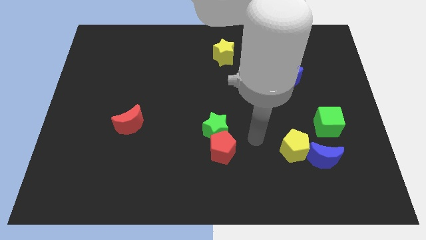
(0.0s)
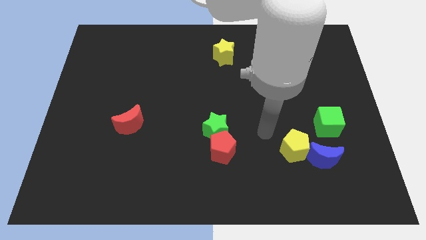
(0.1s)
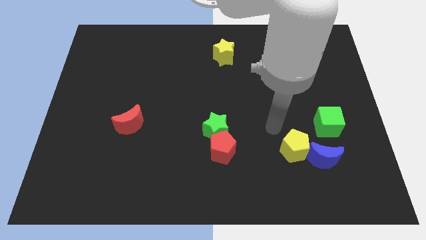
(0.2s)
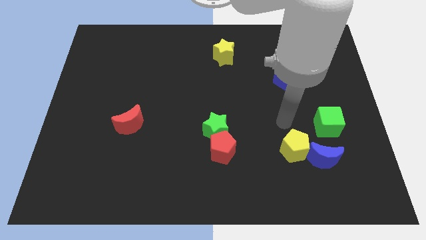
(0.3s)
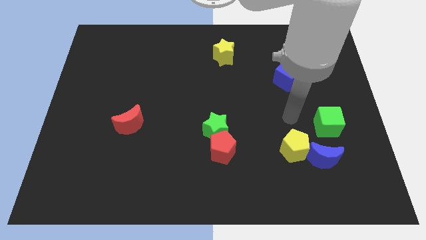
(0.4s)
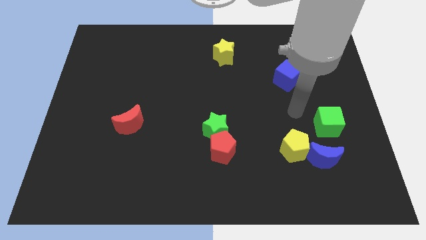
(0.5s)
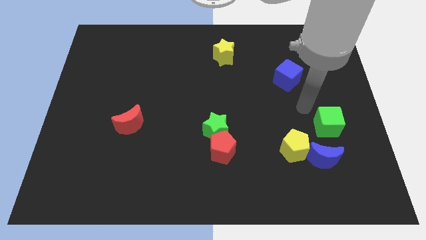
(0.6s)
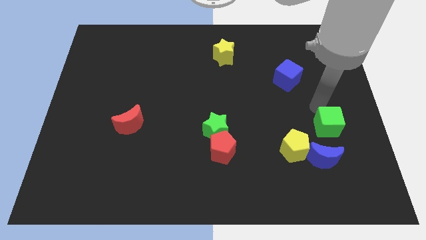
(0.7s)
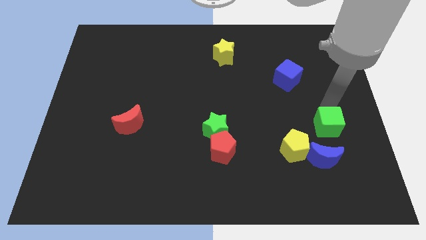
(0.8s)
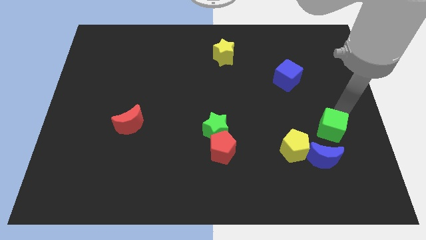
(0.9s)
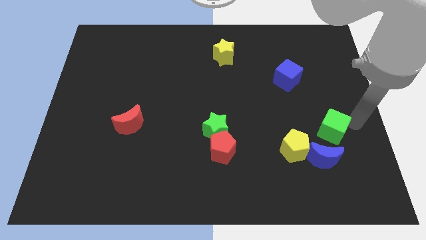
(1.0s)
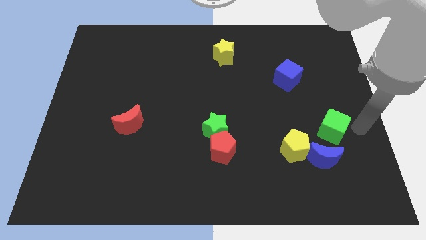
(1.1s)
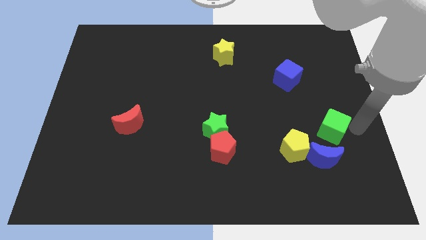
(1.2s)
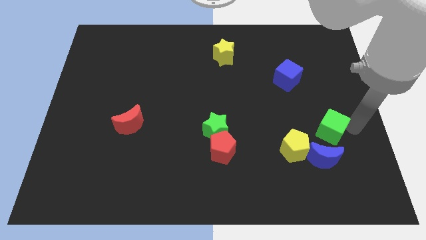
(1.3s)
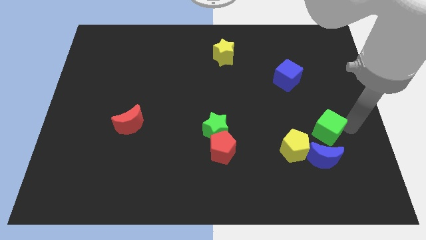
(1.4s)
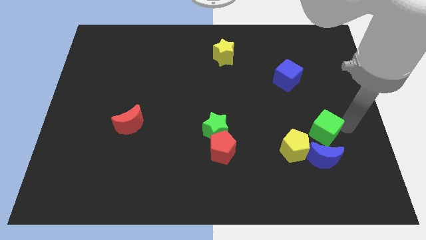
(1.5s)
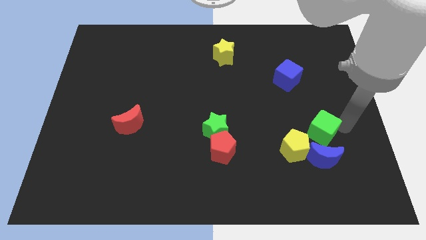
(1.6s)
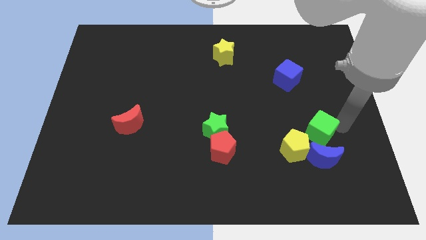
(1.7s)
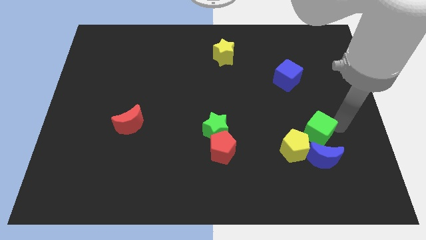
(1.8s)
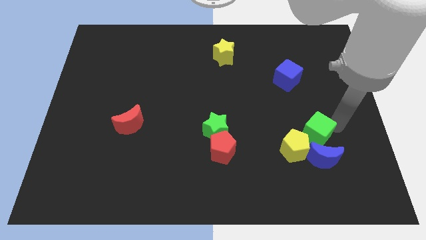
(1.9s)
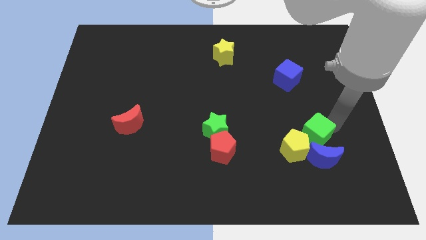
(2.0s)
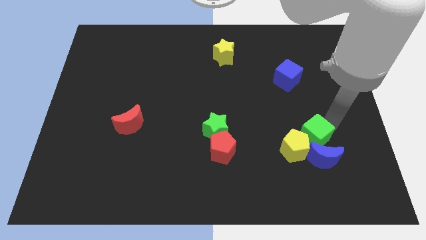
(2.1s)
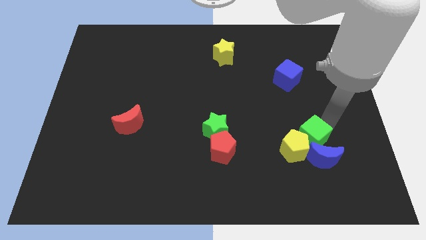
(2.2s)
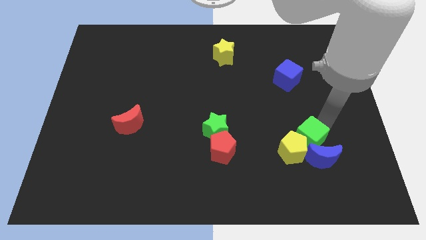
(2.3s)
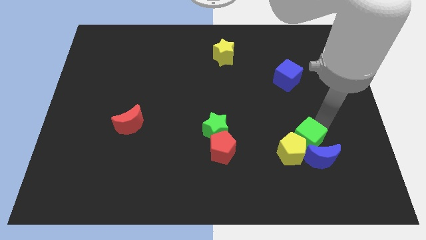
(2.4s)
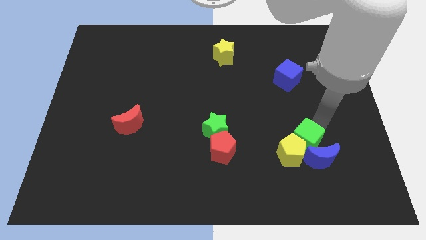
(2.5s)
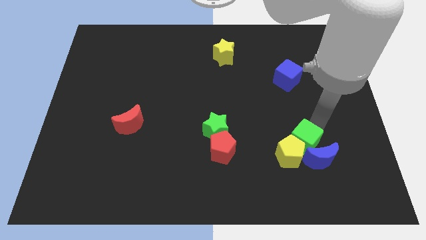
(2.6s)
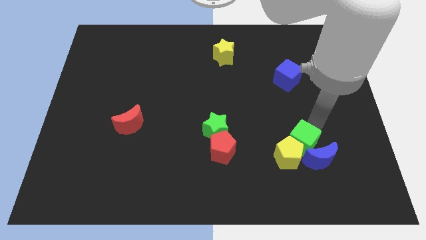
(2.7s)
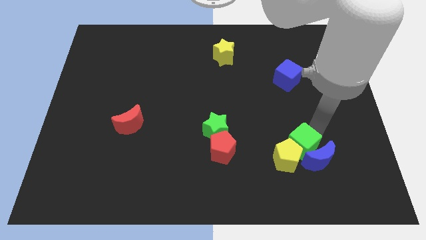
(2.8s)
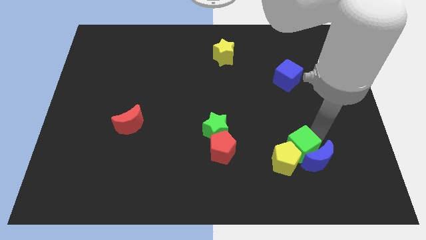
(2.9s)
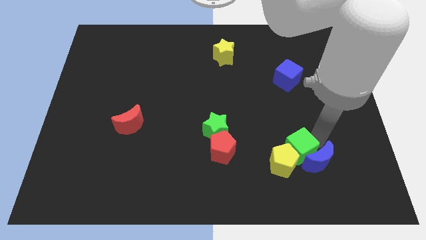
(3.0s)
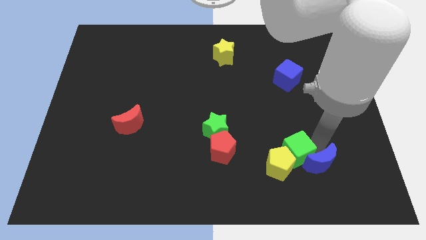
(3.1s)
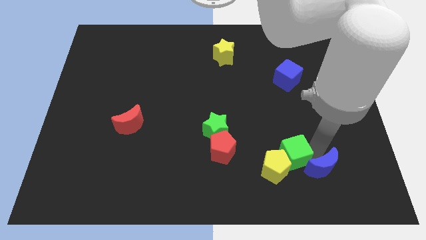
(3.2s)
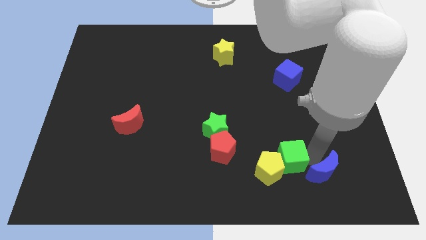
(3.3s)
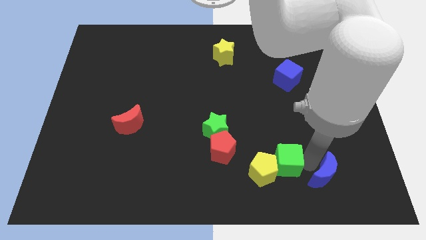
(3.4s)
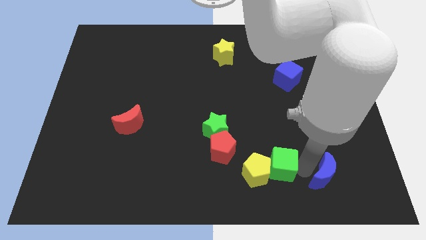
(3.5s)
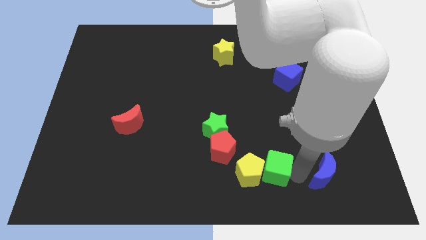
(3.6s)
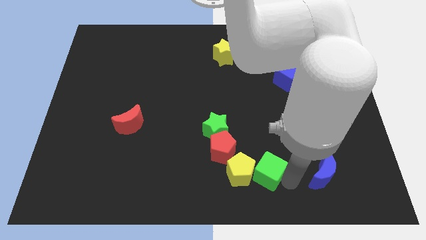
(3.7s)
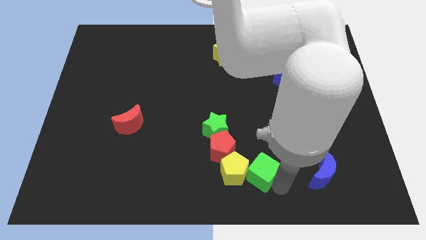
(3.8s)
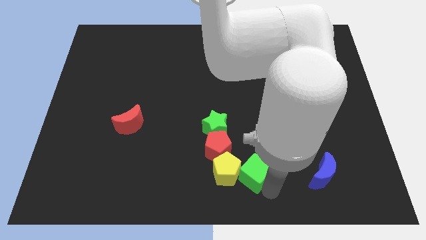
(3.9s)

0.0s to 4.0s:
slightly slide the green cube to the left

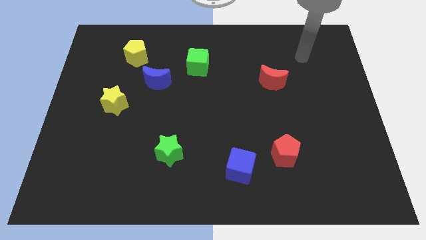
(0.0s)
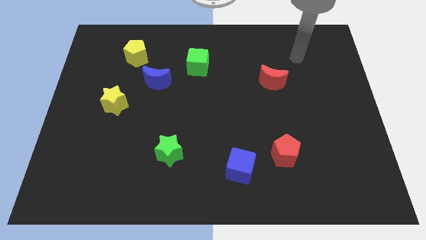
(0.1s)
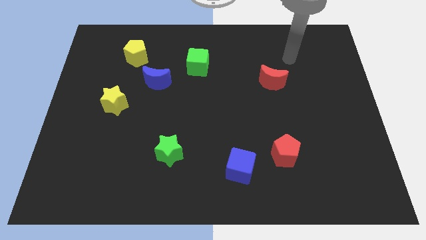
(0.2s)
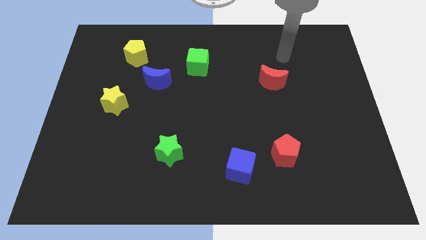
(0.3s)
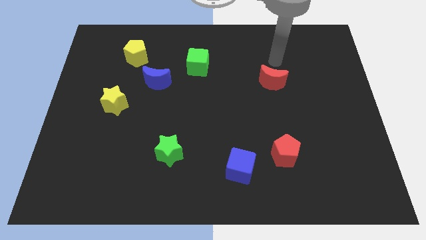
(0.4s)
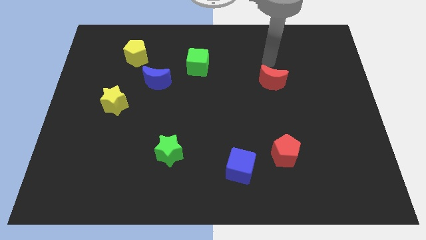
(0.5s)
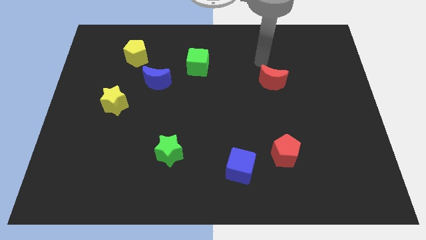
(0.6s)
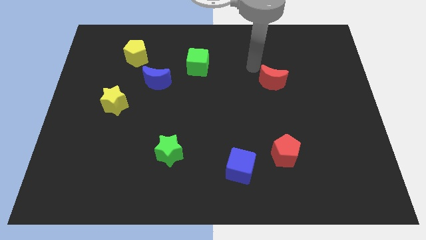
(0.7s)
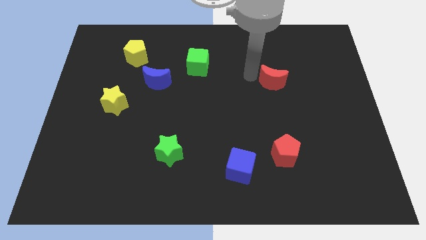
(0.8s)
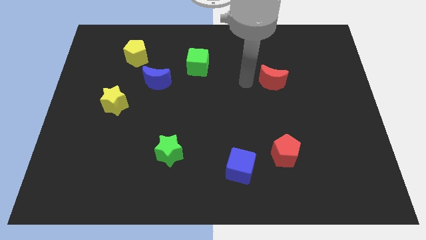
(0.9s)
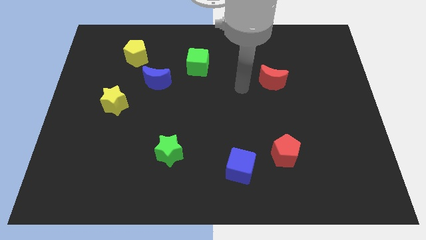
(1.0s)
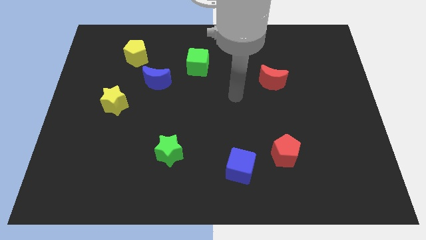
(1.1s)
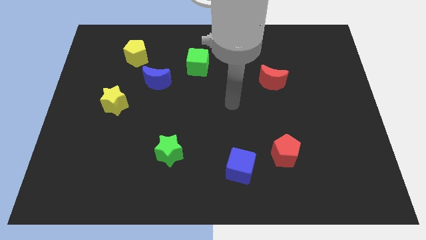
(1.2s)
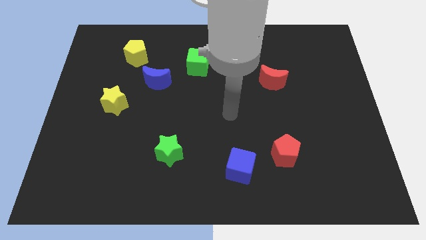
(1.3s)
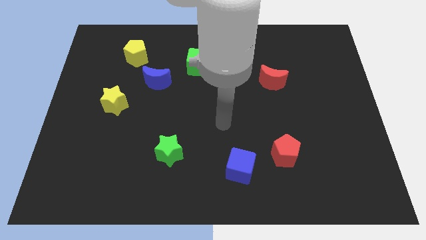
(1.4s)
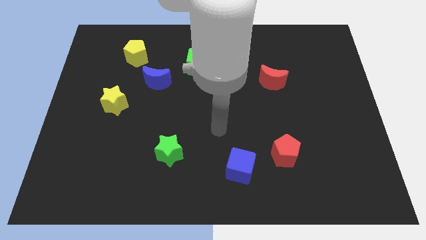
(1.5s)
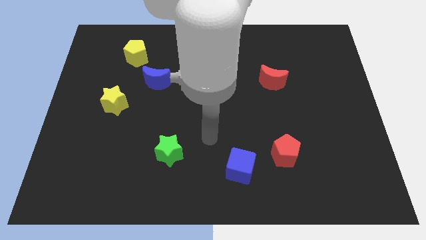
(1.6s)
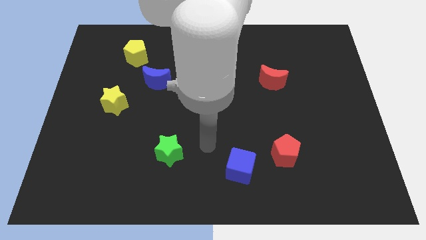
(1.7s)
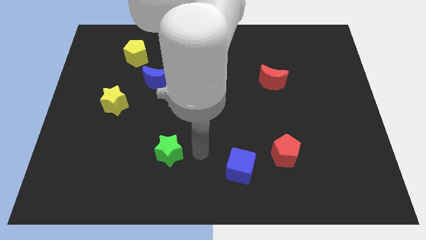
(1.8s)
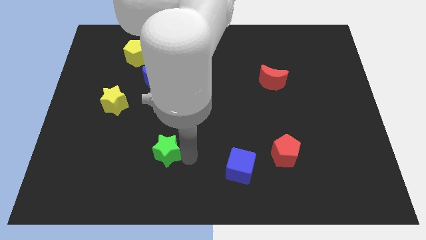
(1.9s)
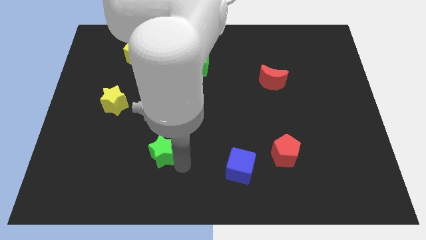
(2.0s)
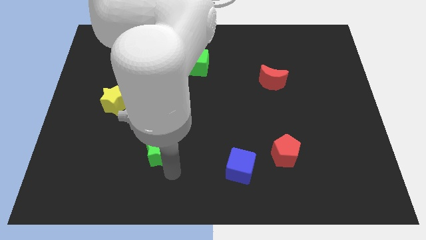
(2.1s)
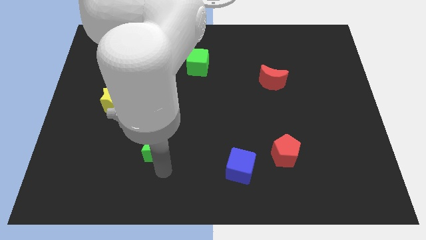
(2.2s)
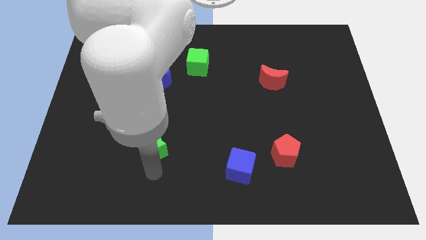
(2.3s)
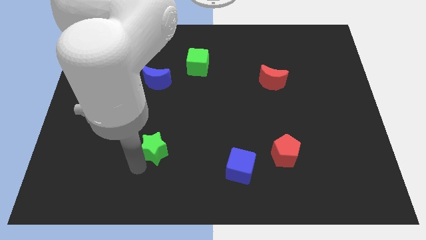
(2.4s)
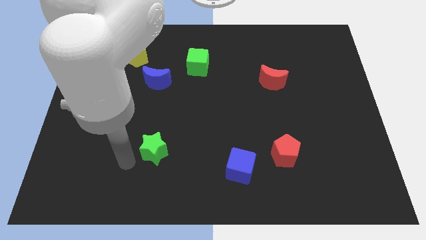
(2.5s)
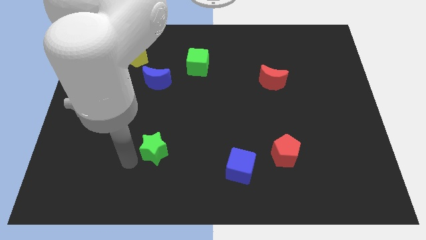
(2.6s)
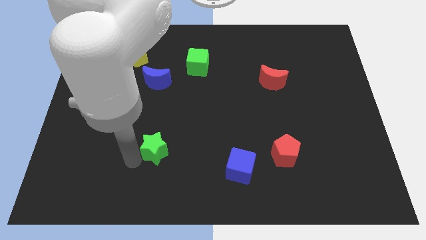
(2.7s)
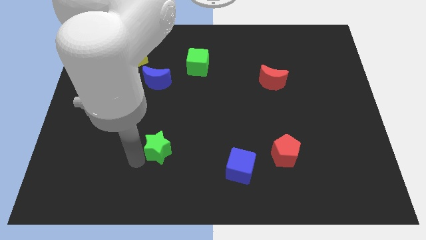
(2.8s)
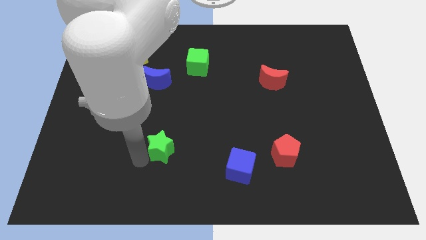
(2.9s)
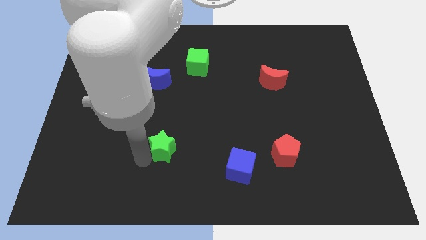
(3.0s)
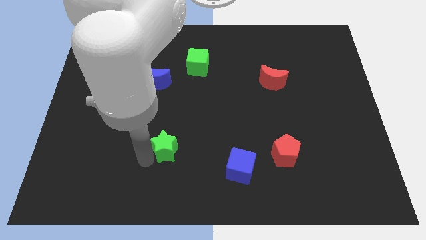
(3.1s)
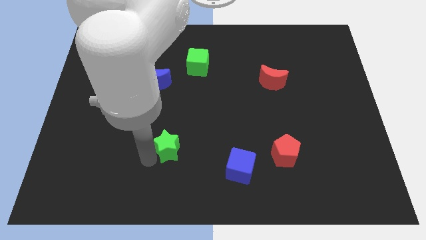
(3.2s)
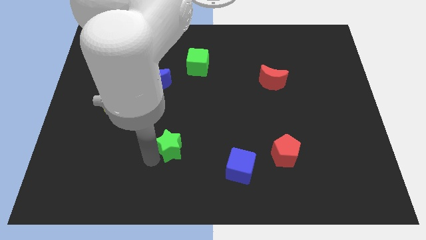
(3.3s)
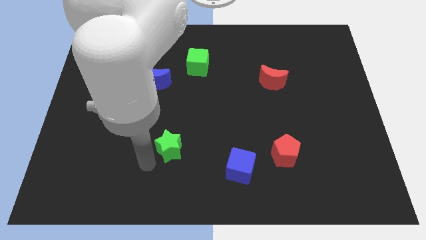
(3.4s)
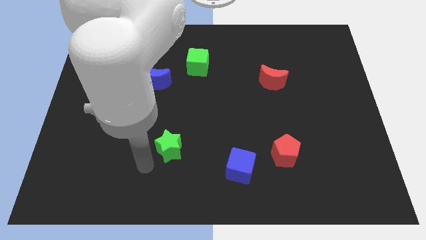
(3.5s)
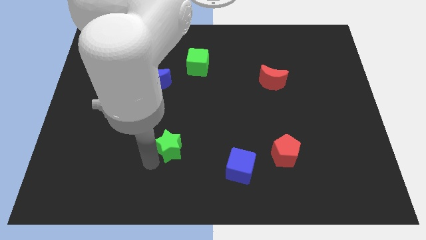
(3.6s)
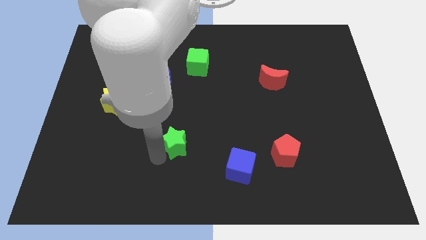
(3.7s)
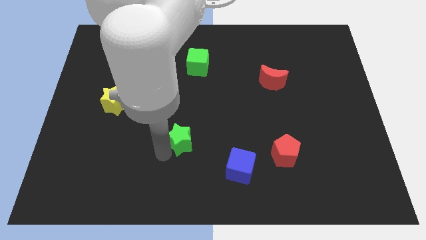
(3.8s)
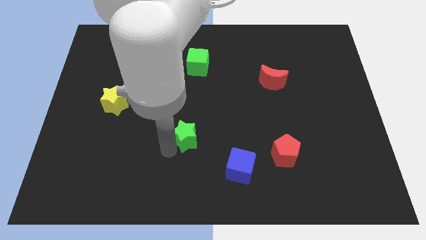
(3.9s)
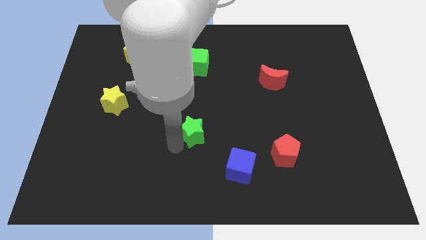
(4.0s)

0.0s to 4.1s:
push the green star slightly upwards and right diagonally
